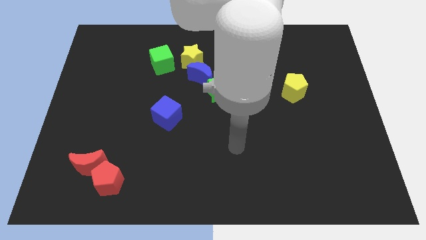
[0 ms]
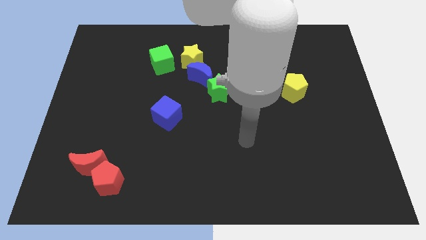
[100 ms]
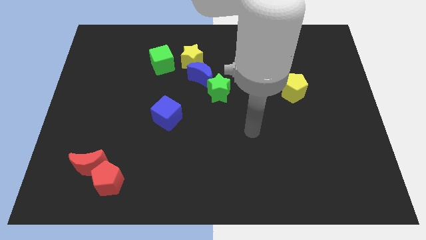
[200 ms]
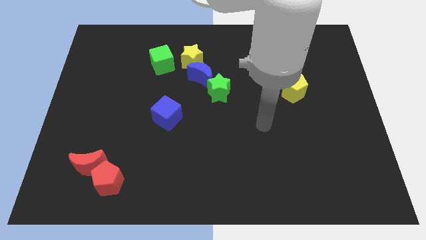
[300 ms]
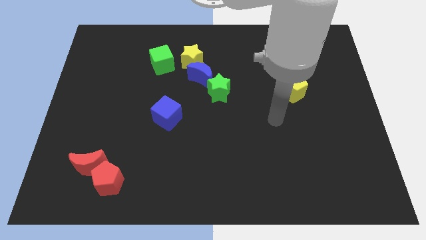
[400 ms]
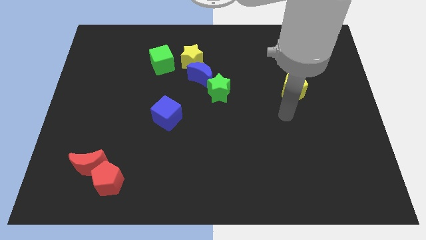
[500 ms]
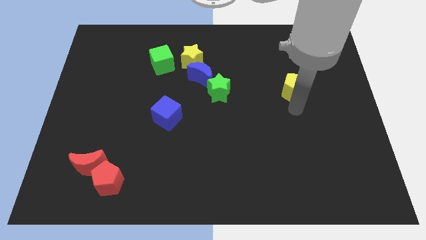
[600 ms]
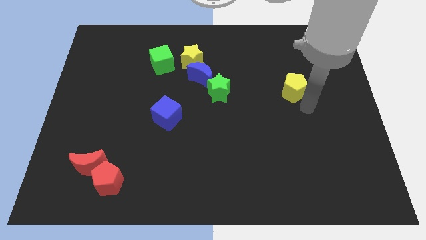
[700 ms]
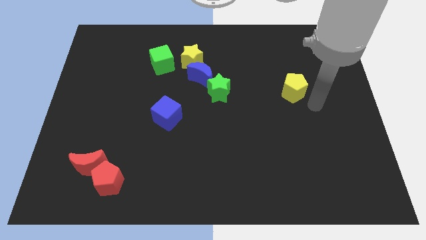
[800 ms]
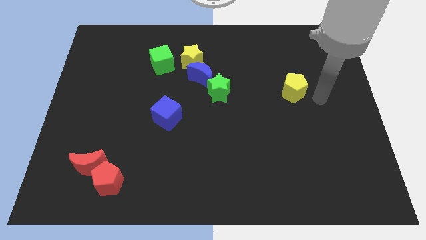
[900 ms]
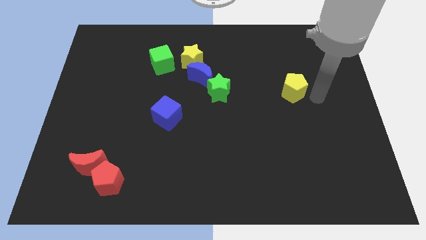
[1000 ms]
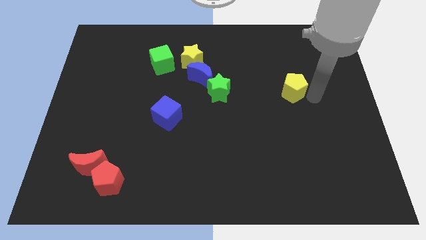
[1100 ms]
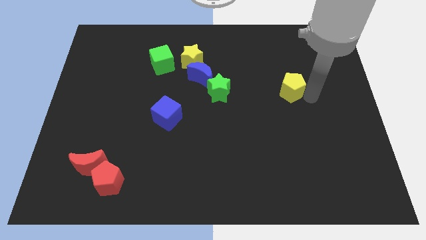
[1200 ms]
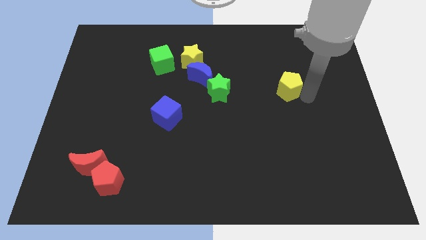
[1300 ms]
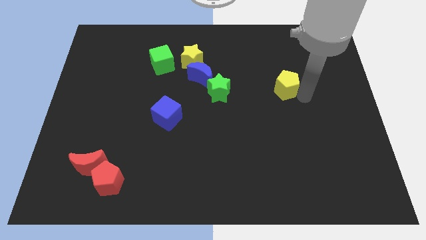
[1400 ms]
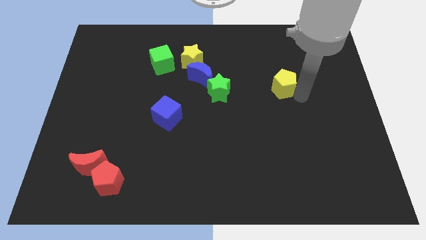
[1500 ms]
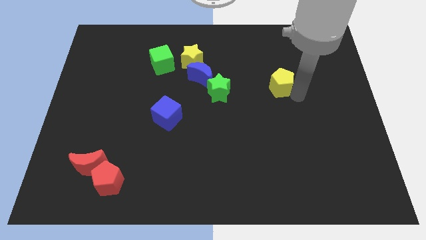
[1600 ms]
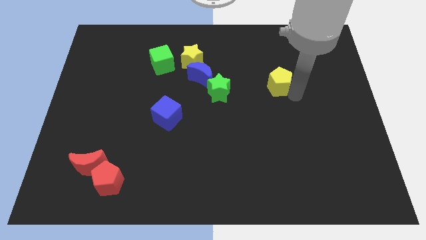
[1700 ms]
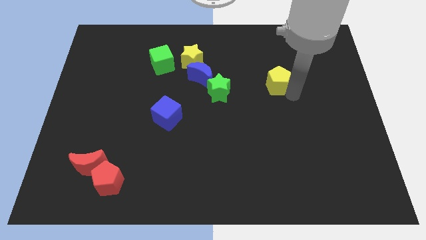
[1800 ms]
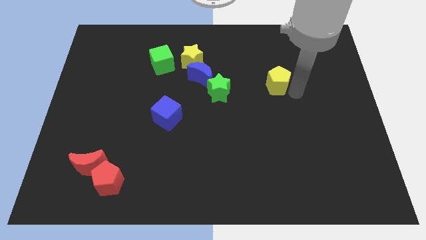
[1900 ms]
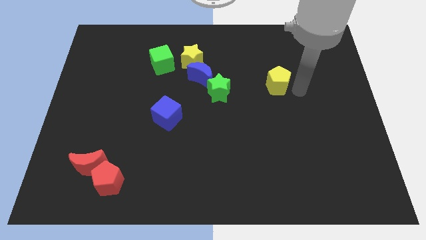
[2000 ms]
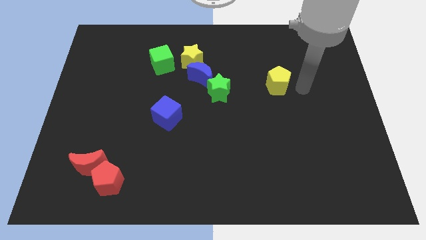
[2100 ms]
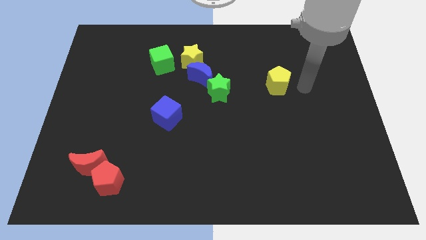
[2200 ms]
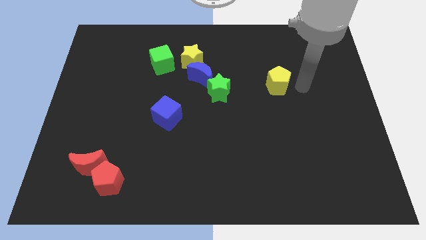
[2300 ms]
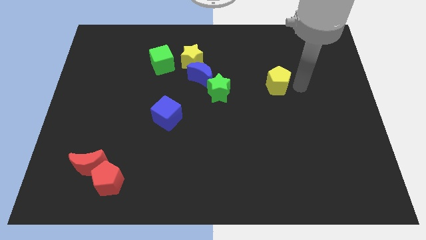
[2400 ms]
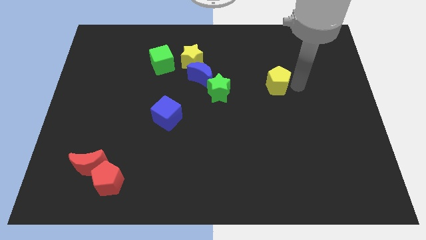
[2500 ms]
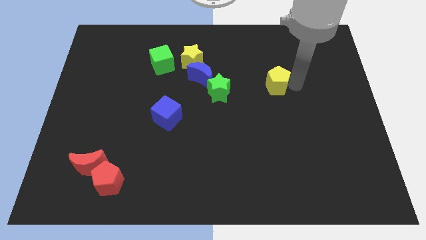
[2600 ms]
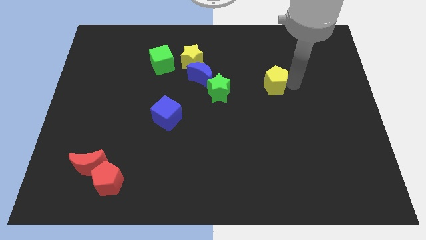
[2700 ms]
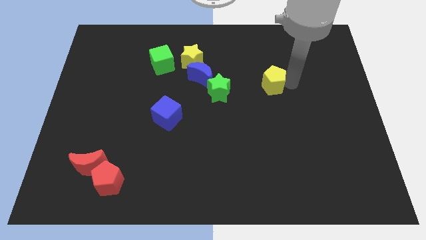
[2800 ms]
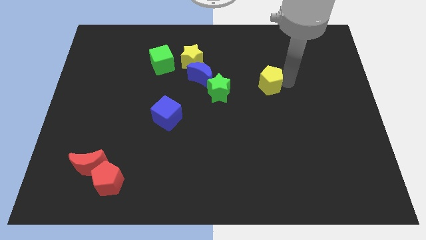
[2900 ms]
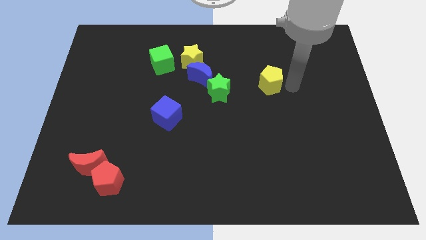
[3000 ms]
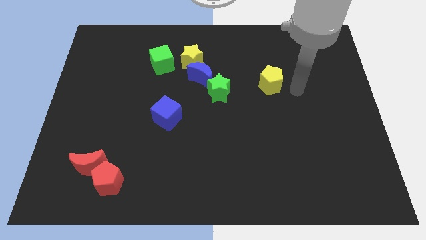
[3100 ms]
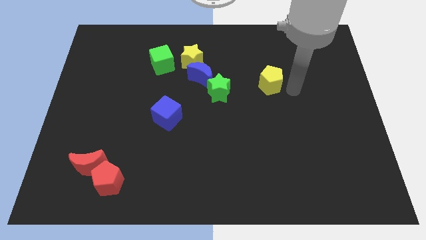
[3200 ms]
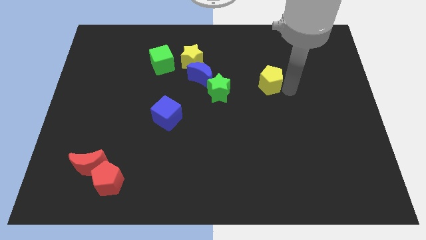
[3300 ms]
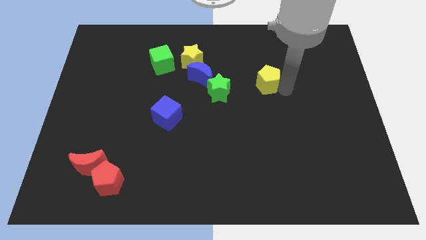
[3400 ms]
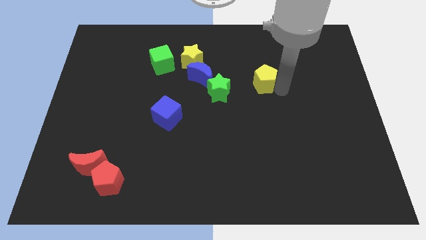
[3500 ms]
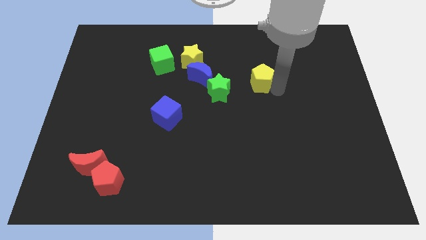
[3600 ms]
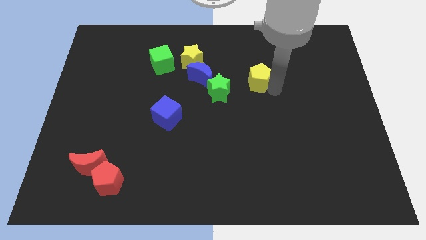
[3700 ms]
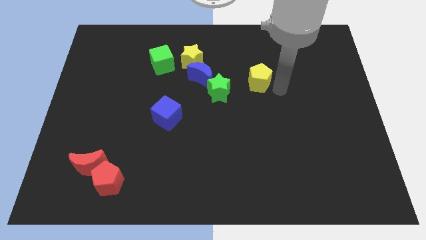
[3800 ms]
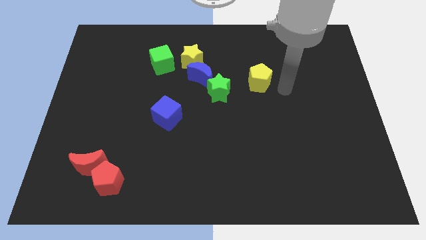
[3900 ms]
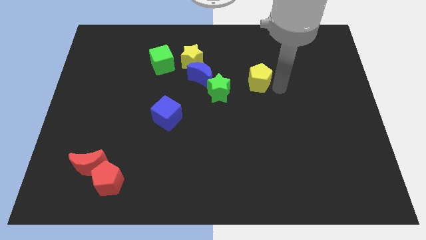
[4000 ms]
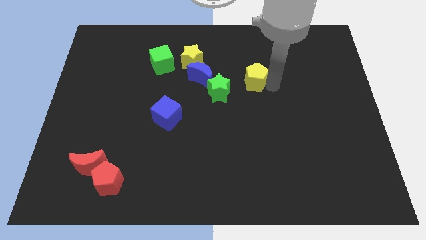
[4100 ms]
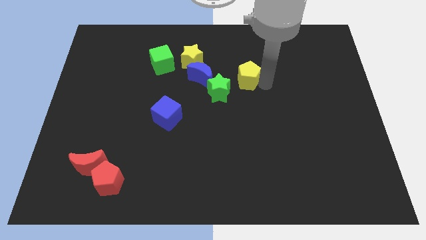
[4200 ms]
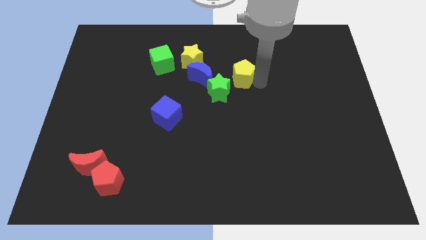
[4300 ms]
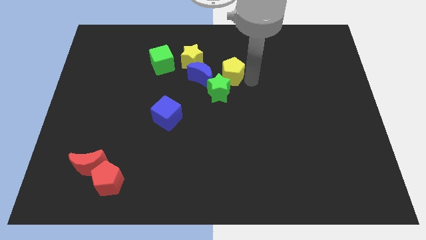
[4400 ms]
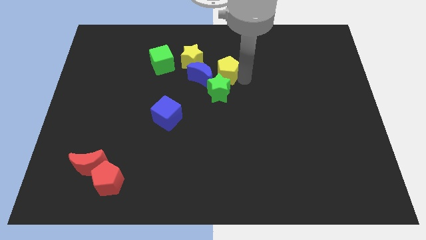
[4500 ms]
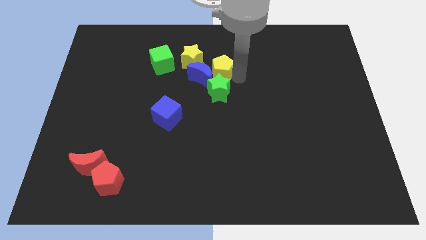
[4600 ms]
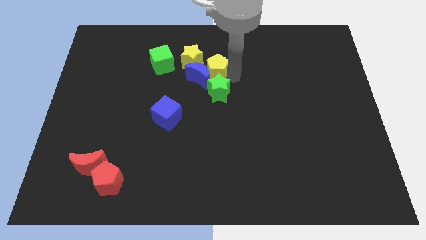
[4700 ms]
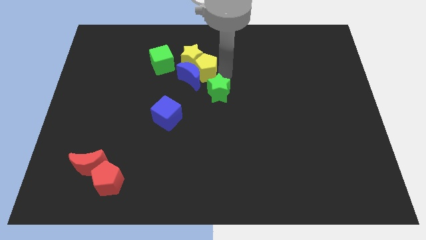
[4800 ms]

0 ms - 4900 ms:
push the yellow pentagon to the yellow star

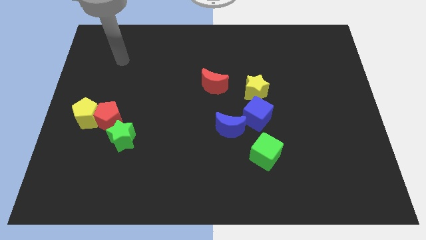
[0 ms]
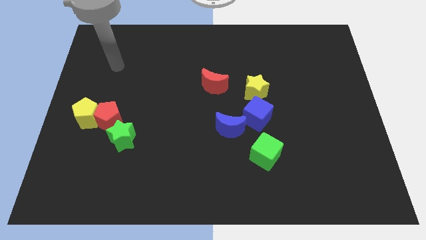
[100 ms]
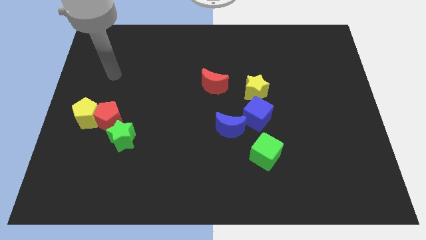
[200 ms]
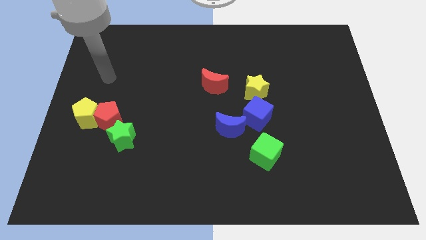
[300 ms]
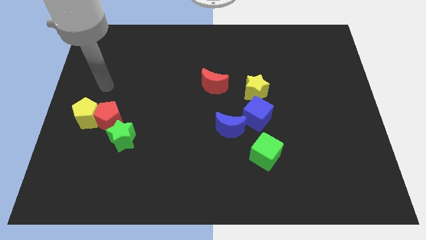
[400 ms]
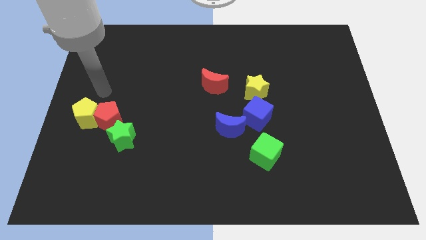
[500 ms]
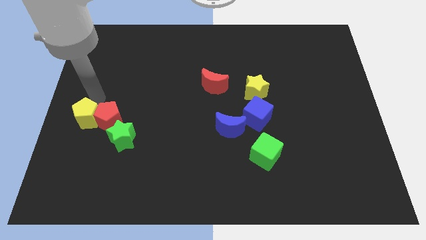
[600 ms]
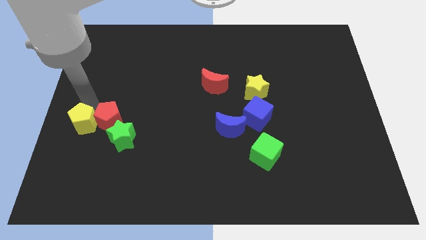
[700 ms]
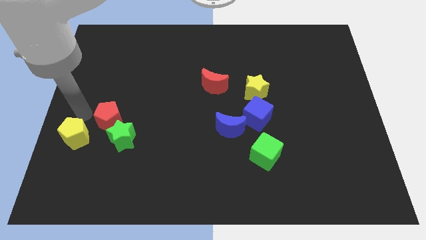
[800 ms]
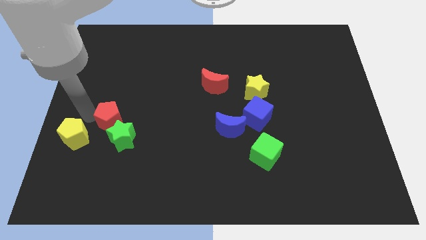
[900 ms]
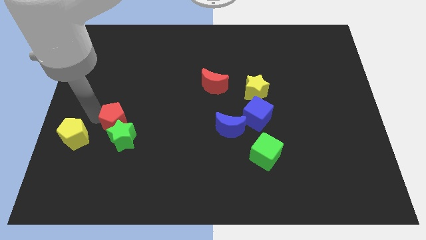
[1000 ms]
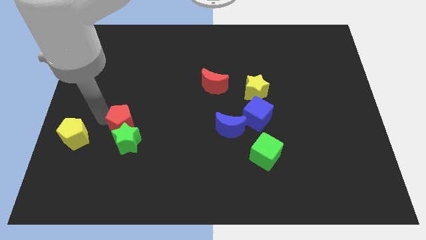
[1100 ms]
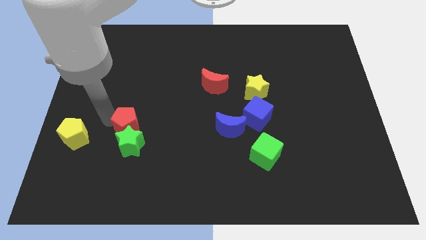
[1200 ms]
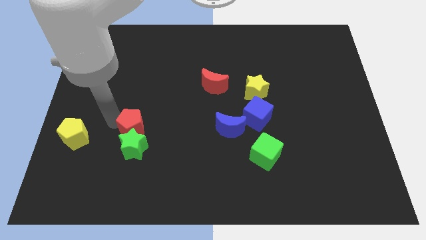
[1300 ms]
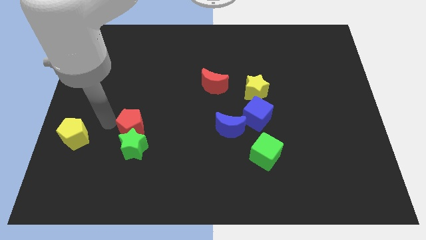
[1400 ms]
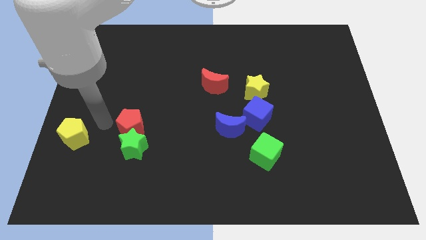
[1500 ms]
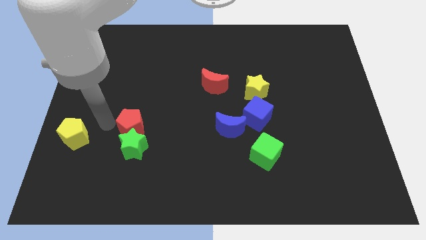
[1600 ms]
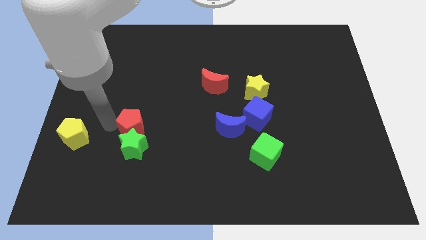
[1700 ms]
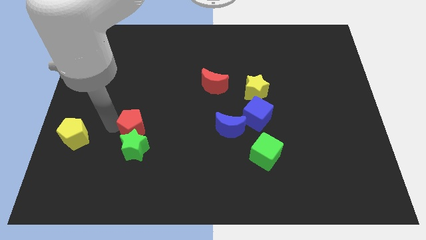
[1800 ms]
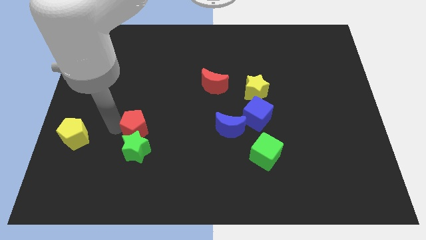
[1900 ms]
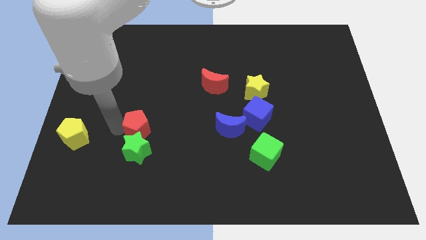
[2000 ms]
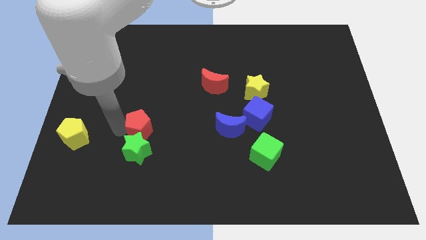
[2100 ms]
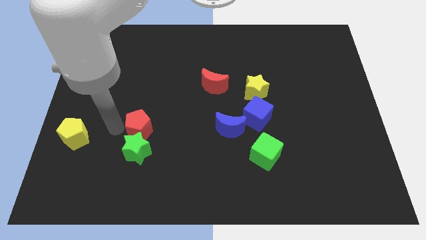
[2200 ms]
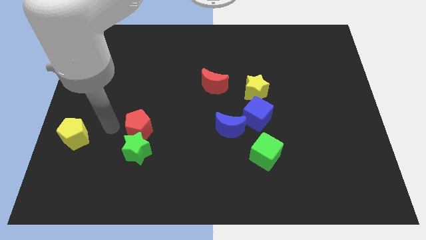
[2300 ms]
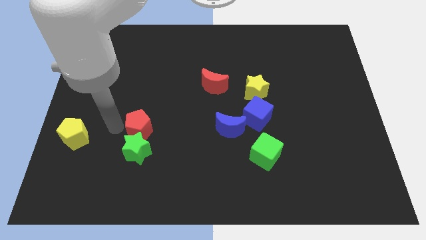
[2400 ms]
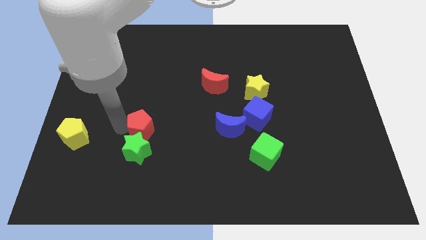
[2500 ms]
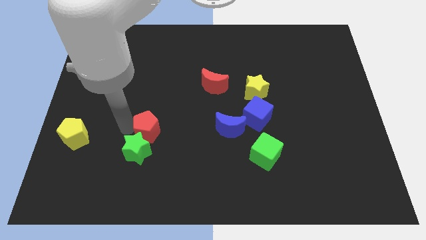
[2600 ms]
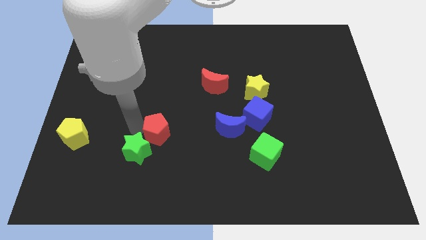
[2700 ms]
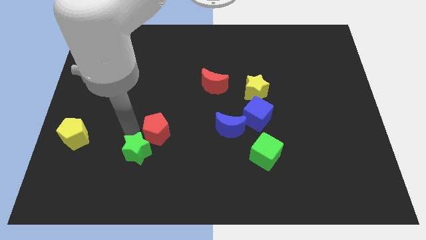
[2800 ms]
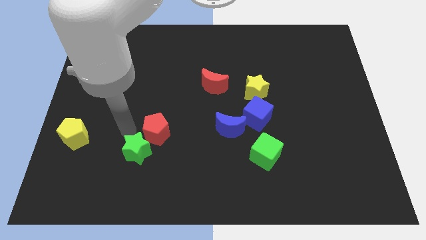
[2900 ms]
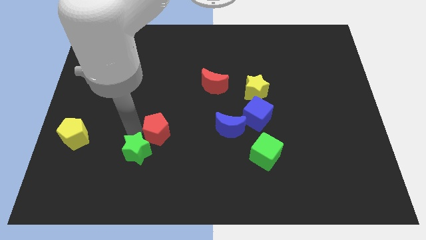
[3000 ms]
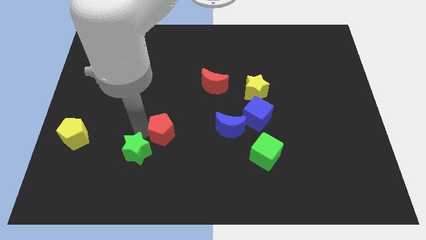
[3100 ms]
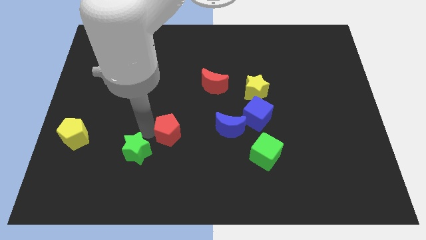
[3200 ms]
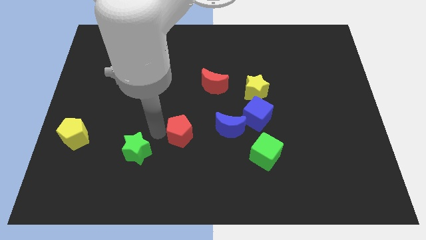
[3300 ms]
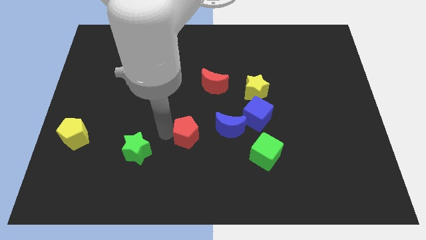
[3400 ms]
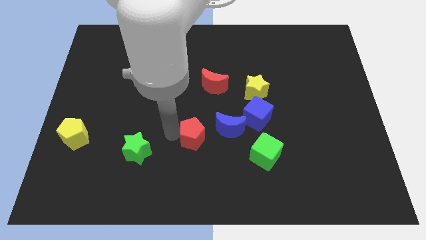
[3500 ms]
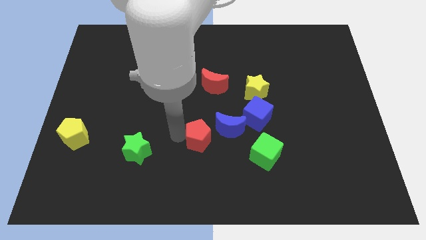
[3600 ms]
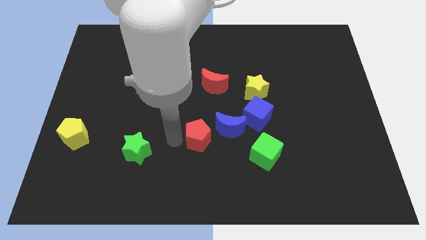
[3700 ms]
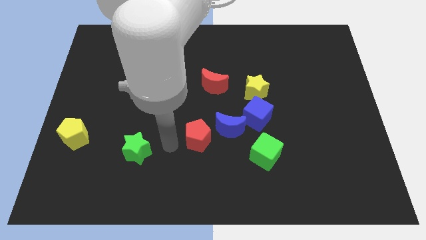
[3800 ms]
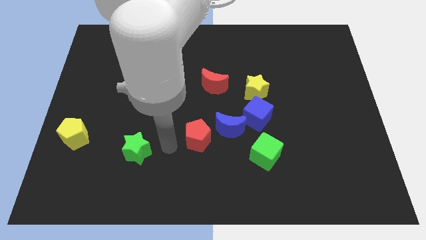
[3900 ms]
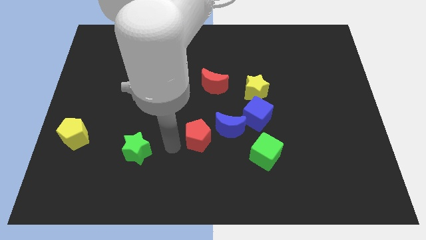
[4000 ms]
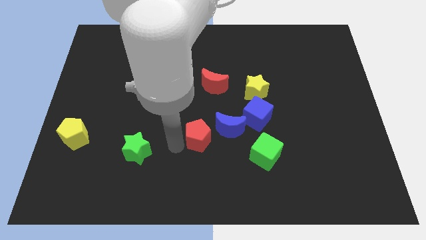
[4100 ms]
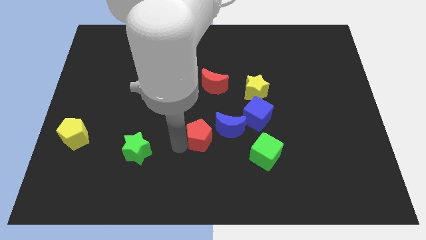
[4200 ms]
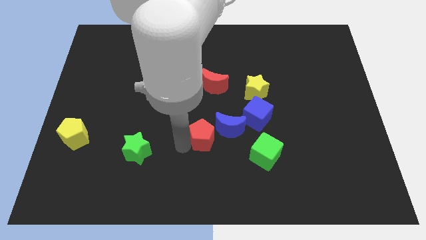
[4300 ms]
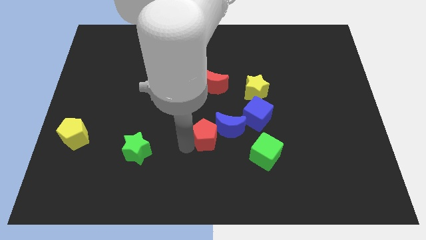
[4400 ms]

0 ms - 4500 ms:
move the red pentagon towards the blue moon
